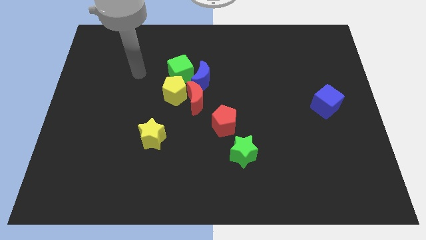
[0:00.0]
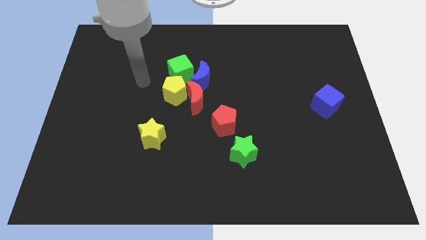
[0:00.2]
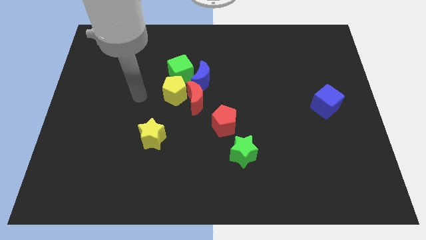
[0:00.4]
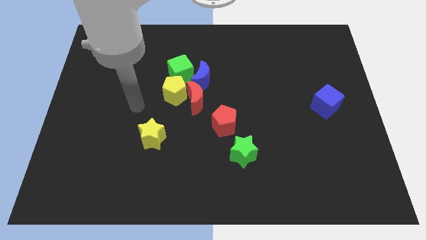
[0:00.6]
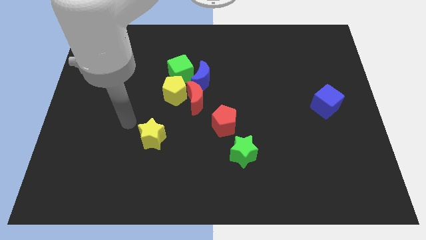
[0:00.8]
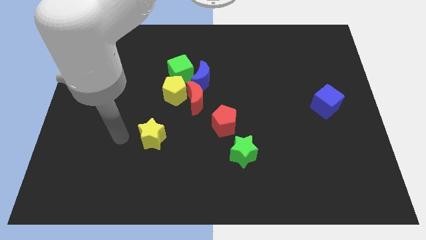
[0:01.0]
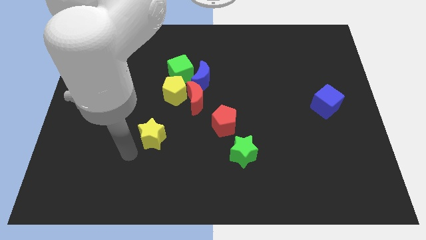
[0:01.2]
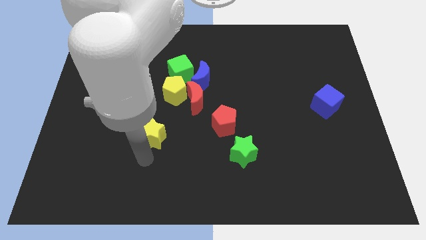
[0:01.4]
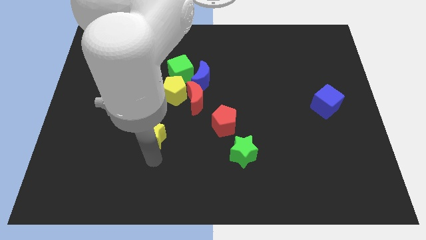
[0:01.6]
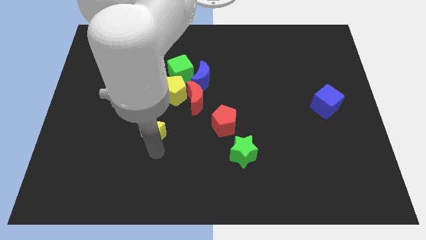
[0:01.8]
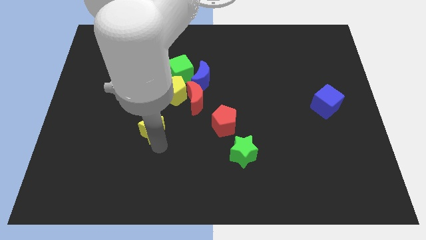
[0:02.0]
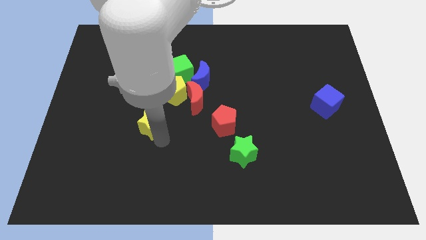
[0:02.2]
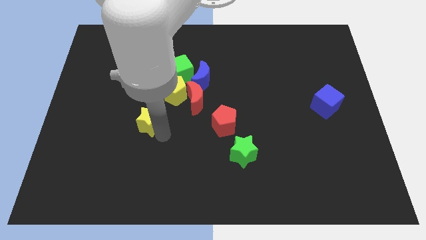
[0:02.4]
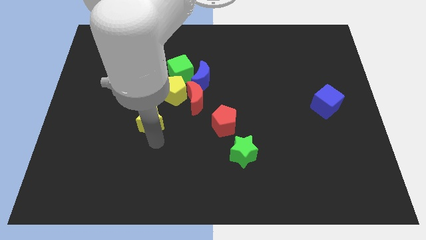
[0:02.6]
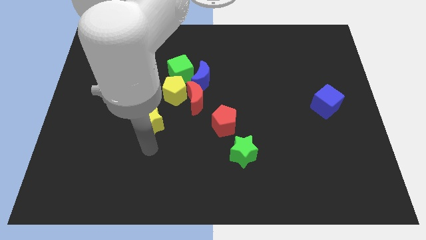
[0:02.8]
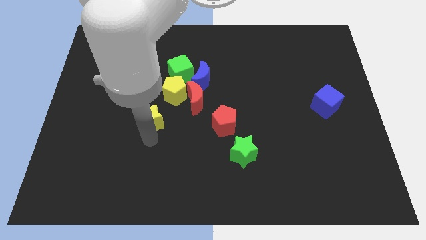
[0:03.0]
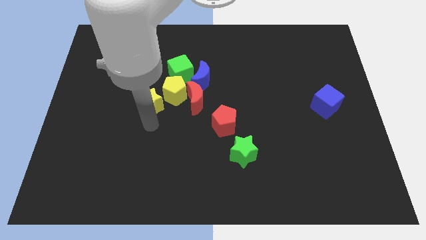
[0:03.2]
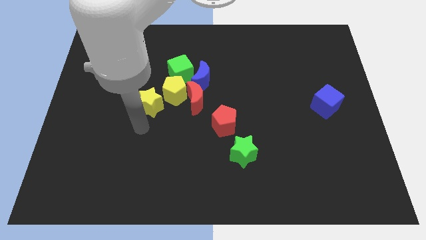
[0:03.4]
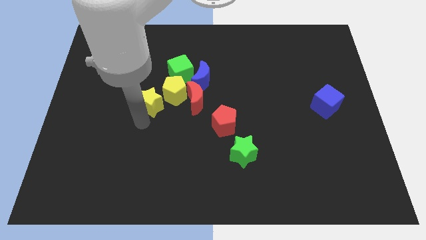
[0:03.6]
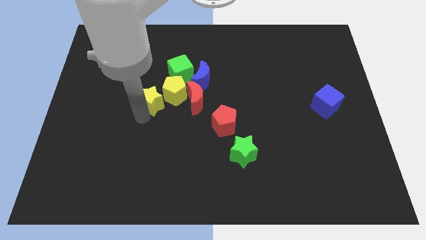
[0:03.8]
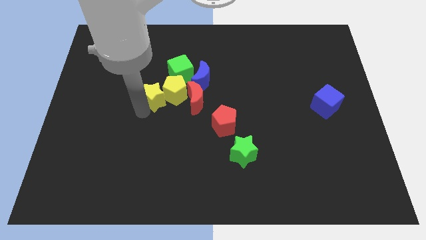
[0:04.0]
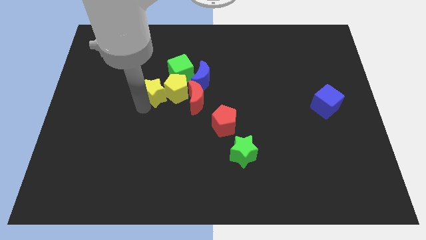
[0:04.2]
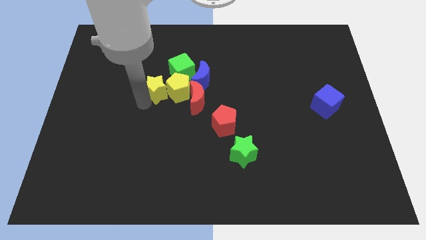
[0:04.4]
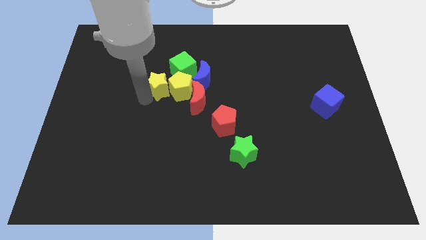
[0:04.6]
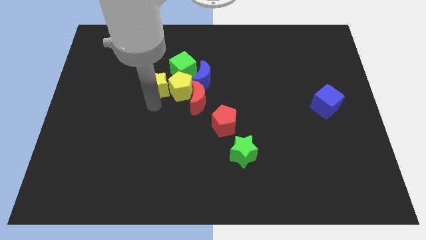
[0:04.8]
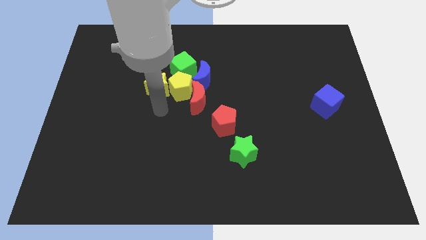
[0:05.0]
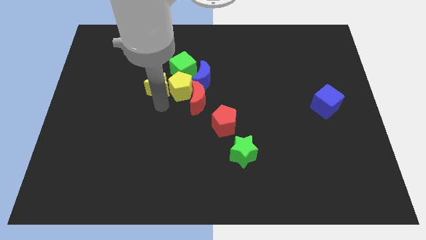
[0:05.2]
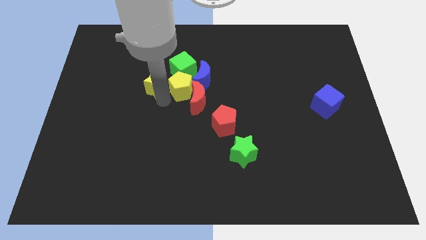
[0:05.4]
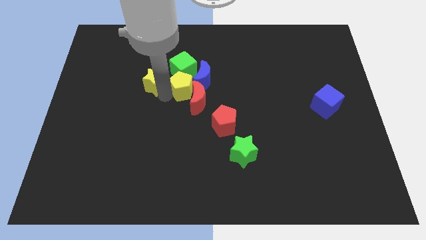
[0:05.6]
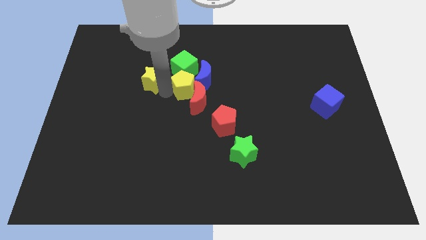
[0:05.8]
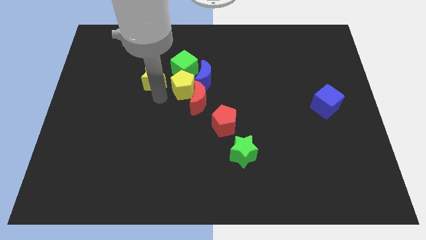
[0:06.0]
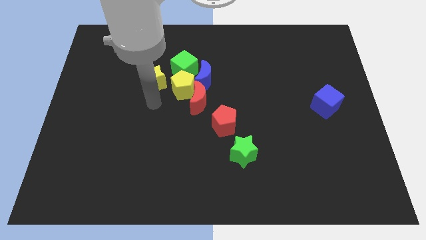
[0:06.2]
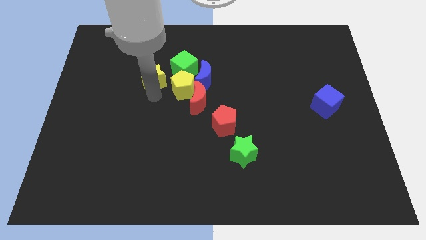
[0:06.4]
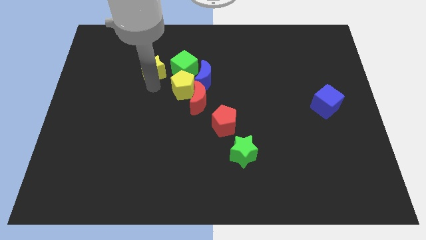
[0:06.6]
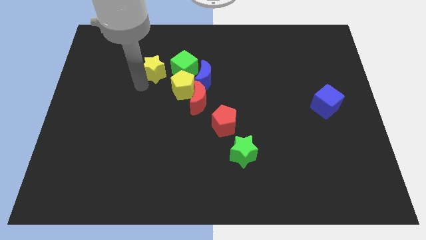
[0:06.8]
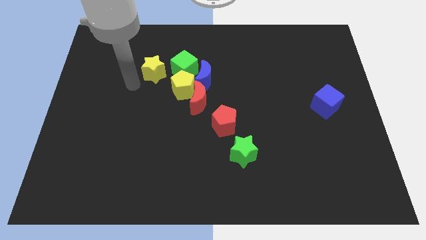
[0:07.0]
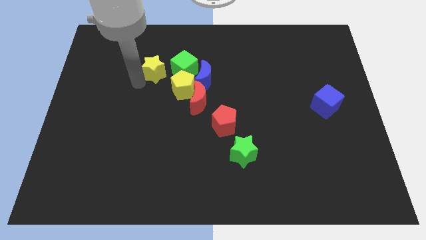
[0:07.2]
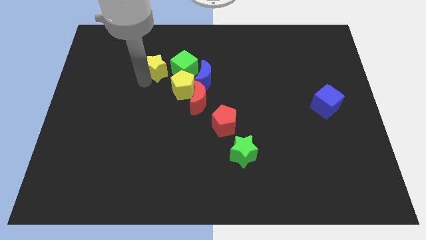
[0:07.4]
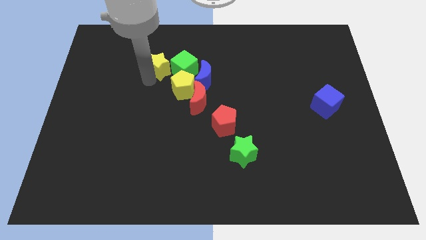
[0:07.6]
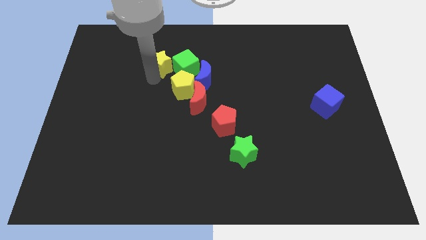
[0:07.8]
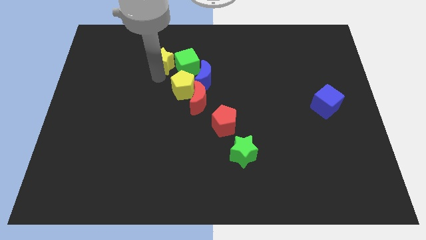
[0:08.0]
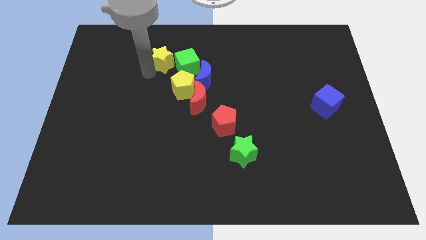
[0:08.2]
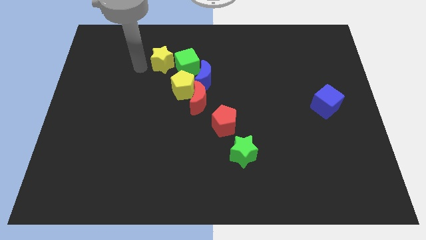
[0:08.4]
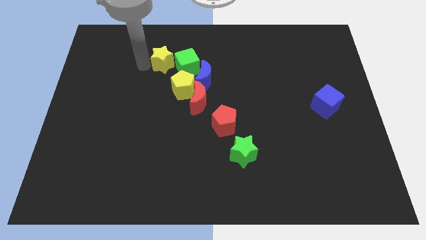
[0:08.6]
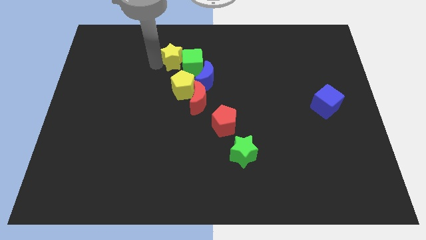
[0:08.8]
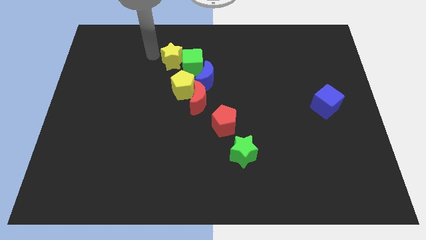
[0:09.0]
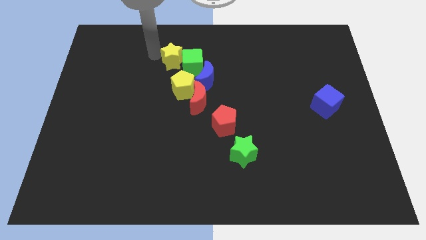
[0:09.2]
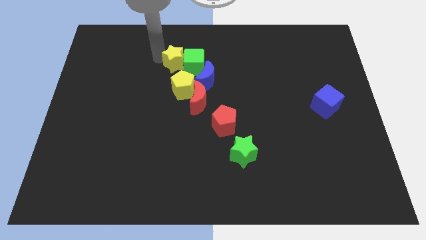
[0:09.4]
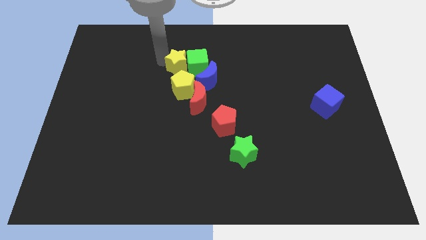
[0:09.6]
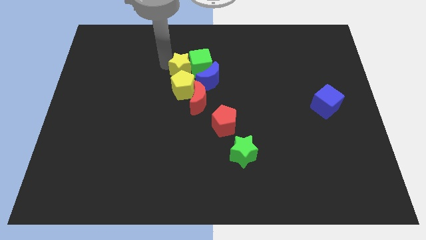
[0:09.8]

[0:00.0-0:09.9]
push the yellow star to the top of the red moon

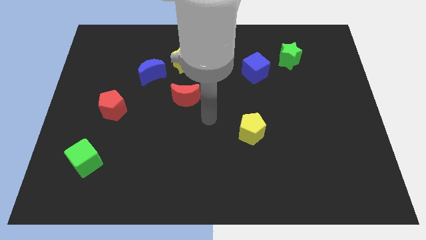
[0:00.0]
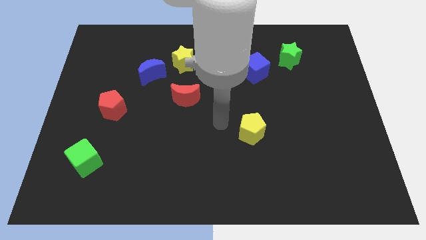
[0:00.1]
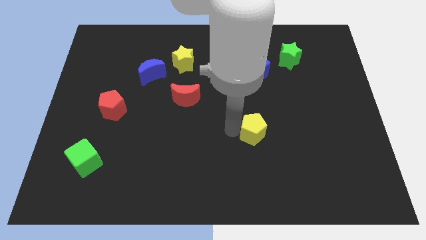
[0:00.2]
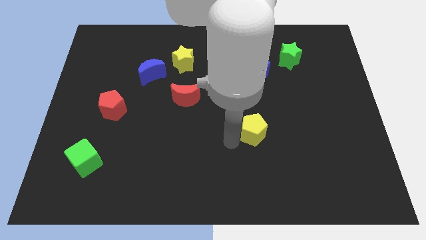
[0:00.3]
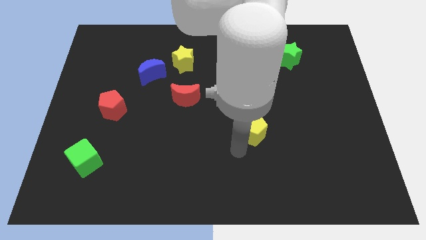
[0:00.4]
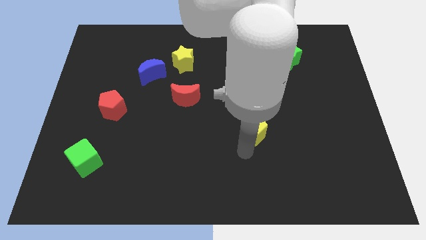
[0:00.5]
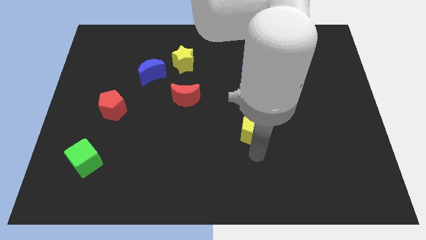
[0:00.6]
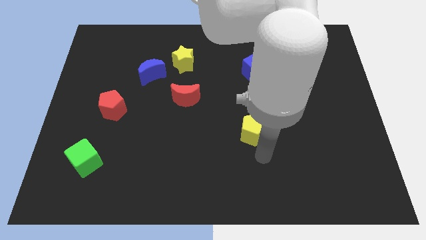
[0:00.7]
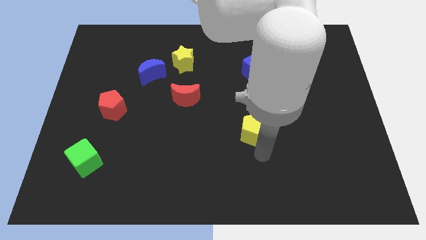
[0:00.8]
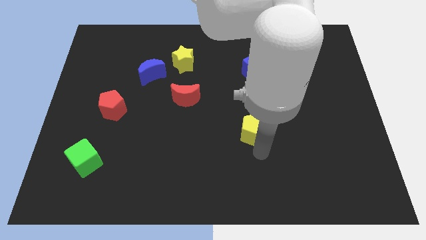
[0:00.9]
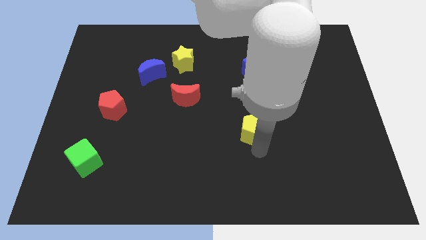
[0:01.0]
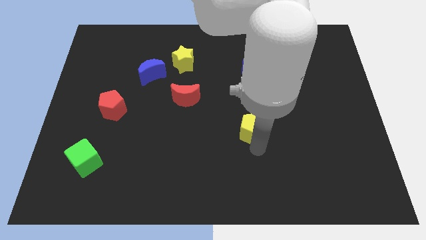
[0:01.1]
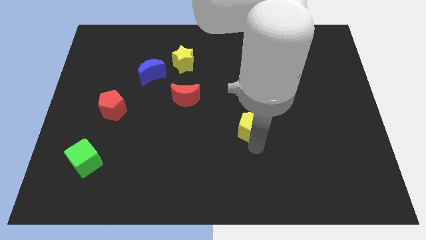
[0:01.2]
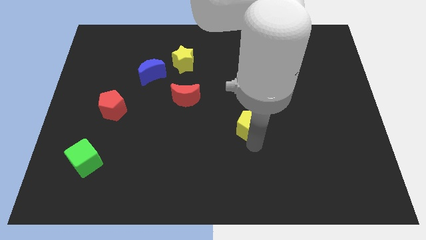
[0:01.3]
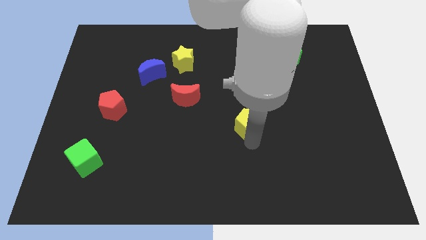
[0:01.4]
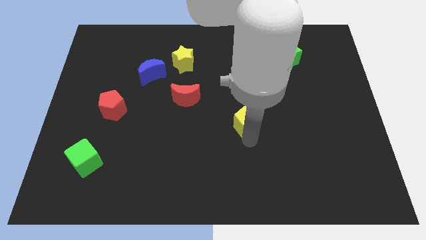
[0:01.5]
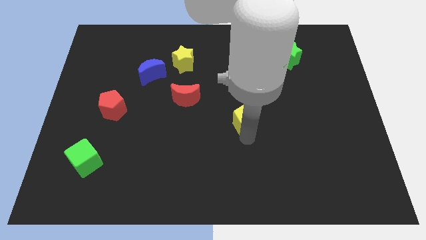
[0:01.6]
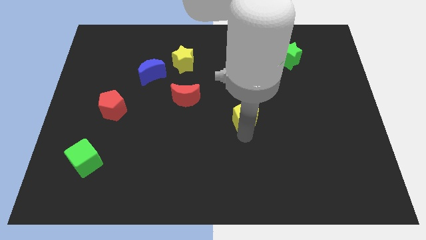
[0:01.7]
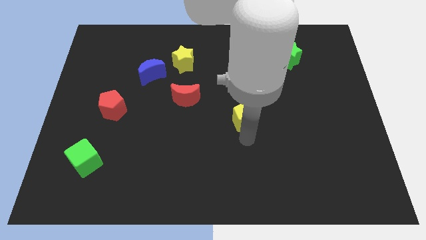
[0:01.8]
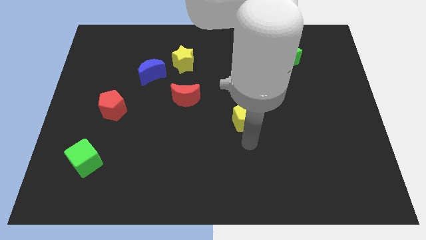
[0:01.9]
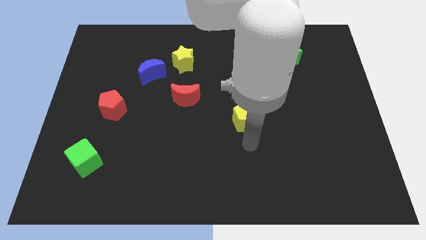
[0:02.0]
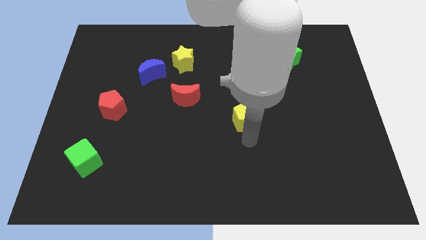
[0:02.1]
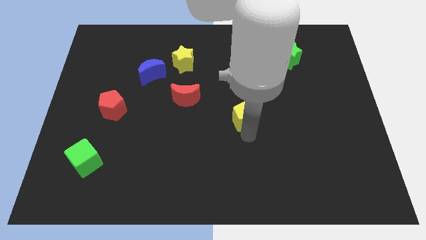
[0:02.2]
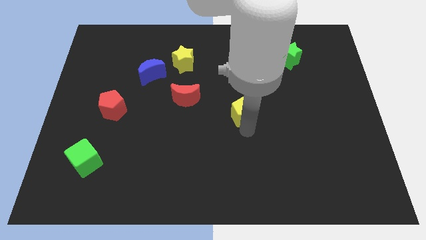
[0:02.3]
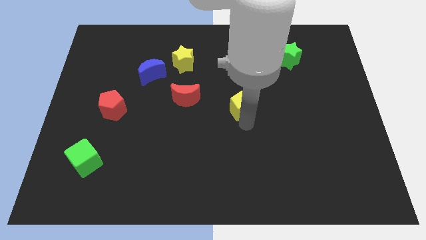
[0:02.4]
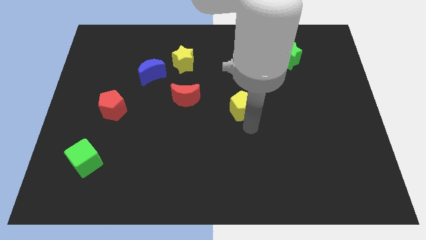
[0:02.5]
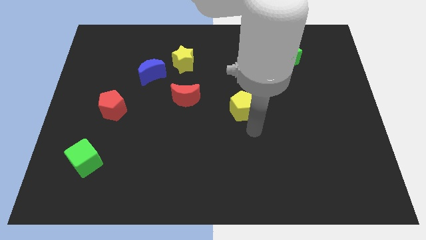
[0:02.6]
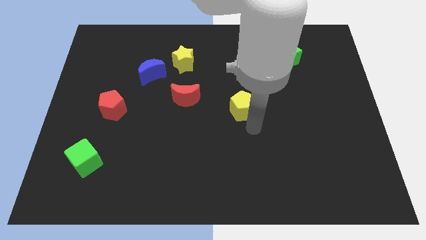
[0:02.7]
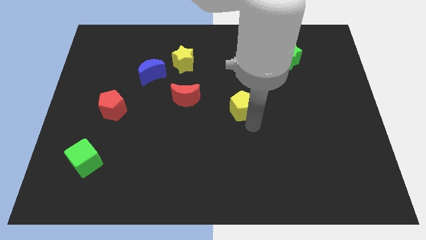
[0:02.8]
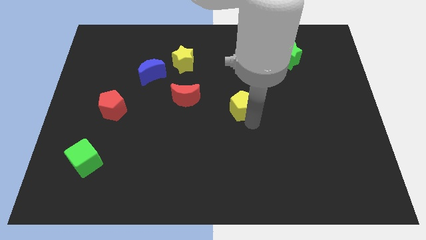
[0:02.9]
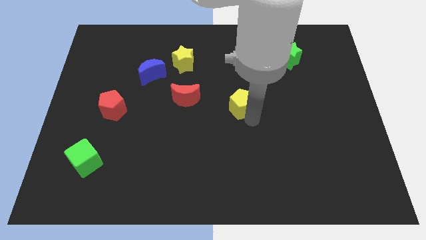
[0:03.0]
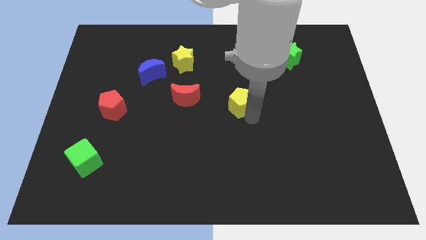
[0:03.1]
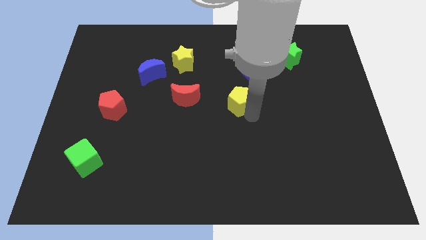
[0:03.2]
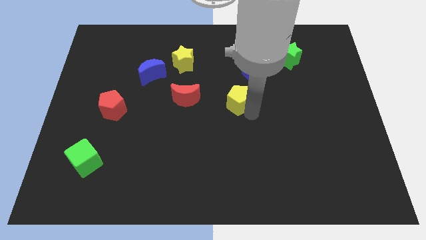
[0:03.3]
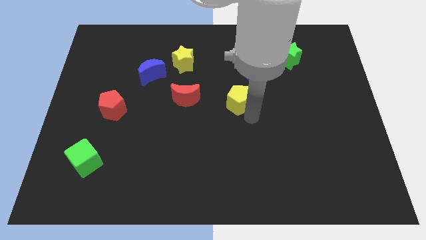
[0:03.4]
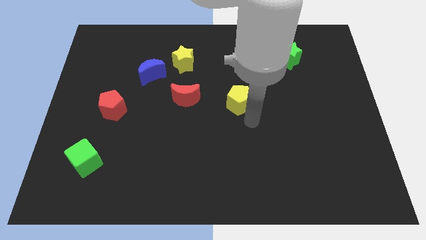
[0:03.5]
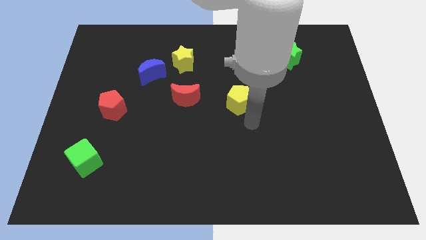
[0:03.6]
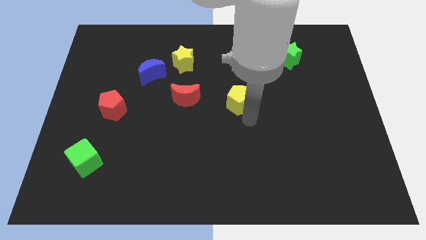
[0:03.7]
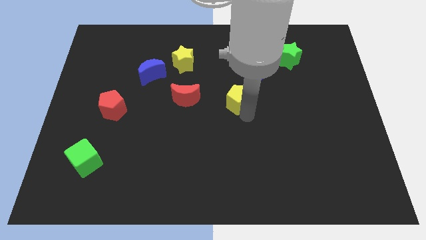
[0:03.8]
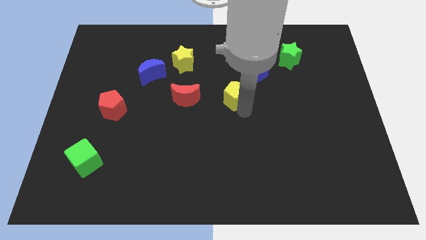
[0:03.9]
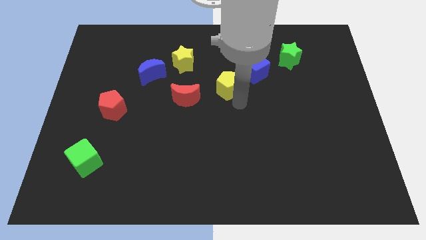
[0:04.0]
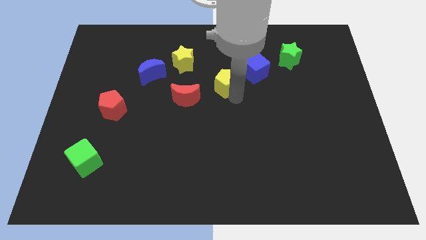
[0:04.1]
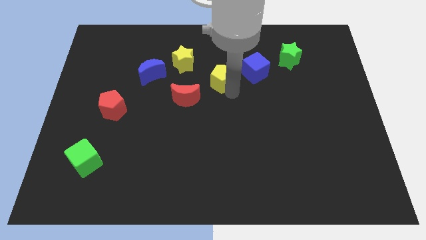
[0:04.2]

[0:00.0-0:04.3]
push the yellow pentagon to the left of the blue cube
